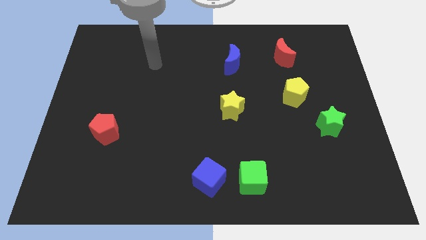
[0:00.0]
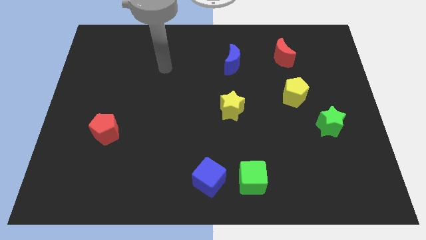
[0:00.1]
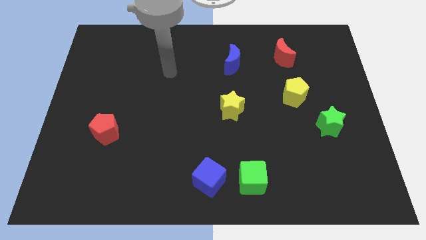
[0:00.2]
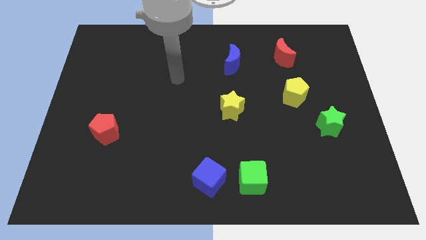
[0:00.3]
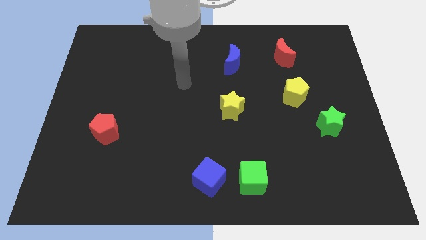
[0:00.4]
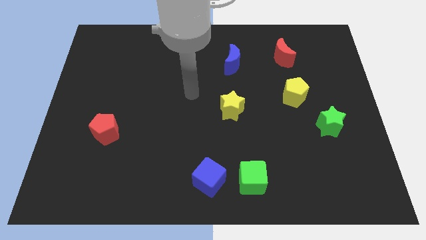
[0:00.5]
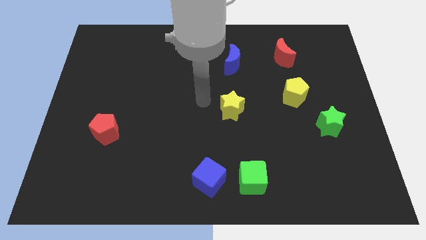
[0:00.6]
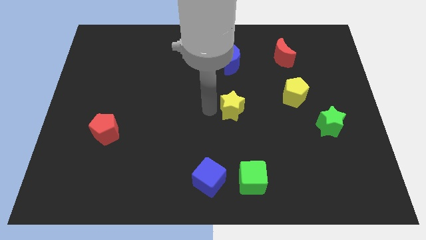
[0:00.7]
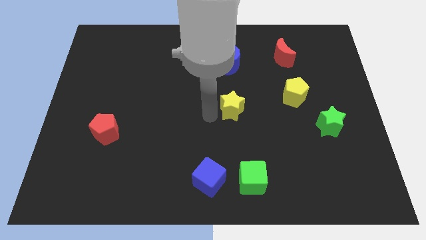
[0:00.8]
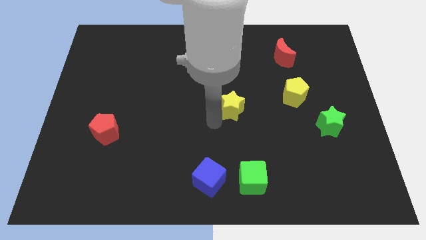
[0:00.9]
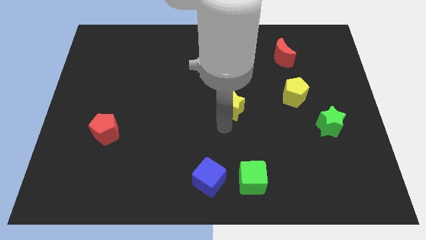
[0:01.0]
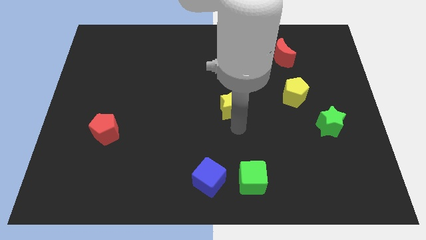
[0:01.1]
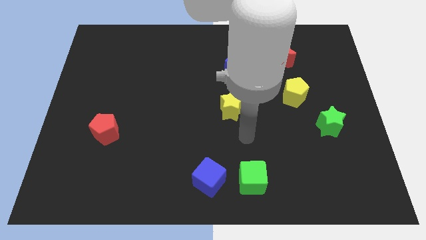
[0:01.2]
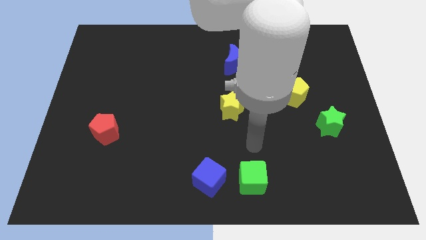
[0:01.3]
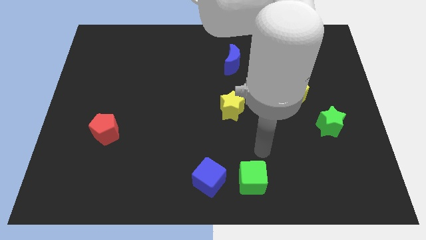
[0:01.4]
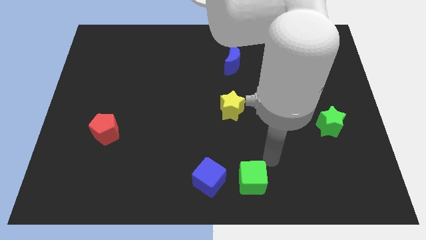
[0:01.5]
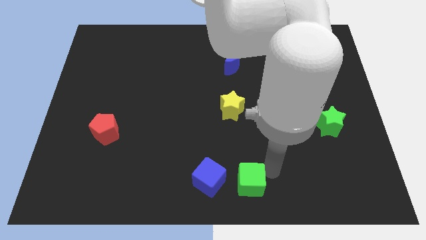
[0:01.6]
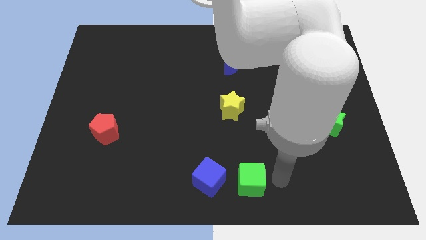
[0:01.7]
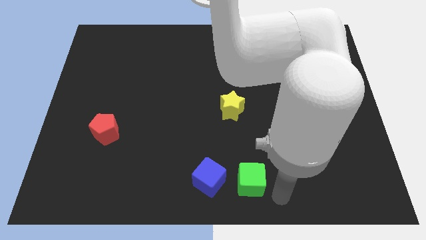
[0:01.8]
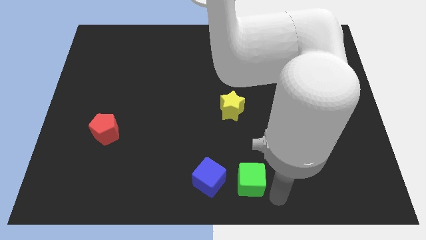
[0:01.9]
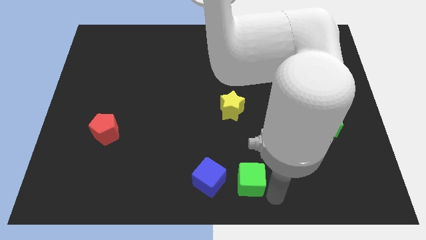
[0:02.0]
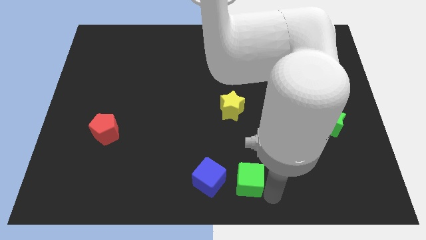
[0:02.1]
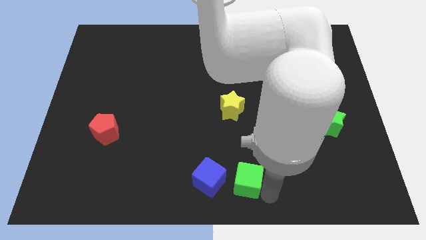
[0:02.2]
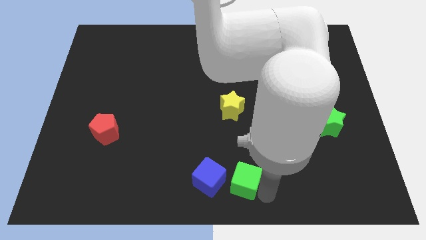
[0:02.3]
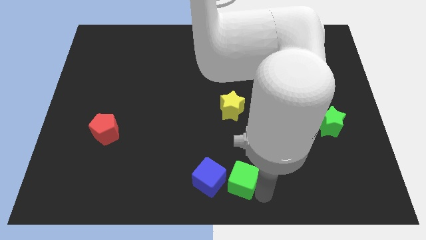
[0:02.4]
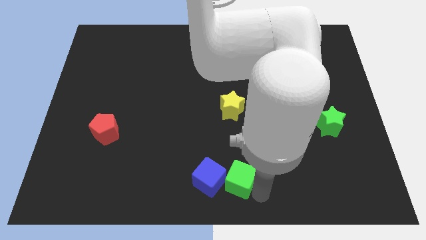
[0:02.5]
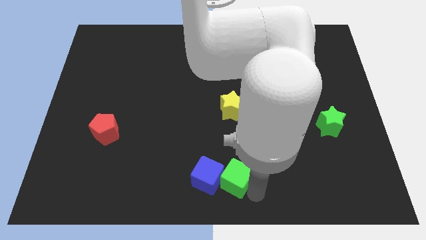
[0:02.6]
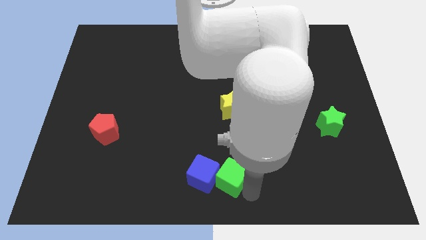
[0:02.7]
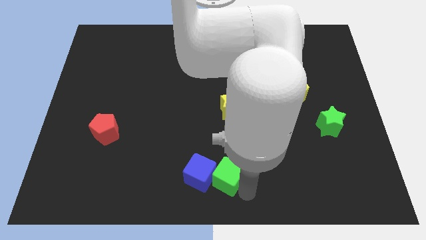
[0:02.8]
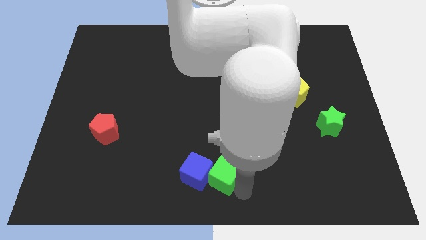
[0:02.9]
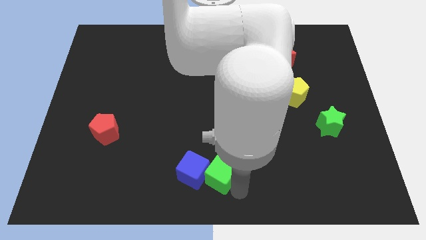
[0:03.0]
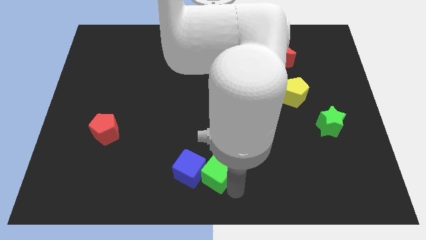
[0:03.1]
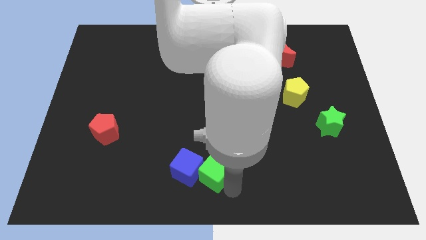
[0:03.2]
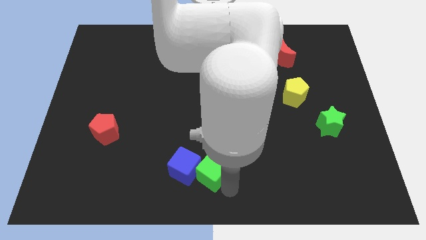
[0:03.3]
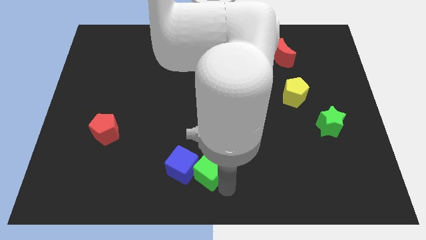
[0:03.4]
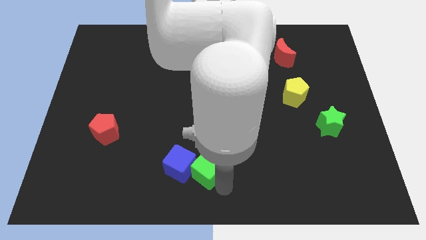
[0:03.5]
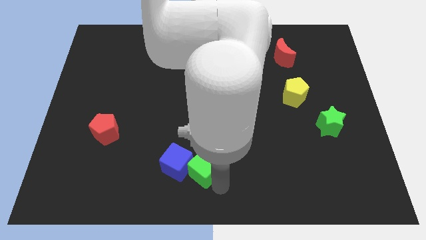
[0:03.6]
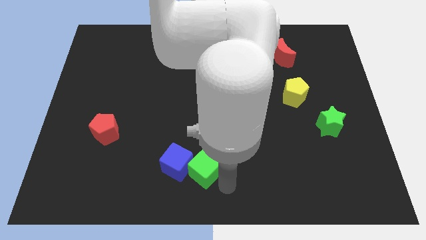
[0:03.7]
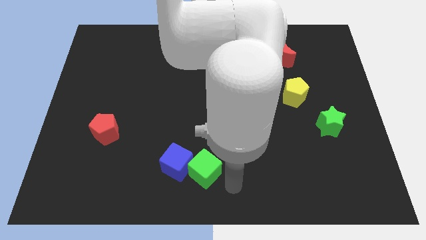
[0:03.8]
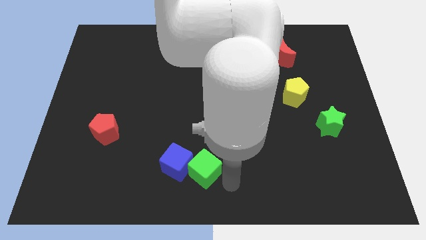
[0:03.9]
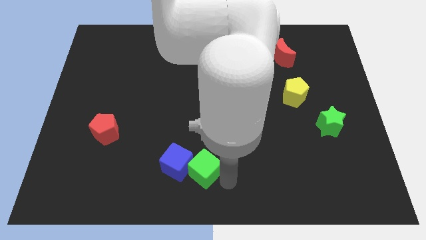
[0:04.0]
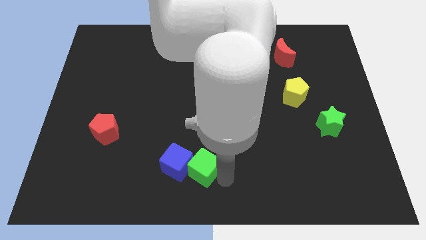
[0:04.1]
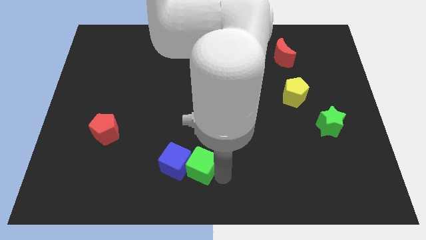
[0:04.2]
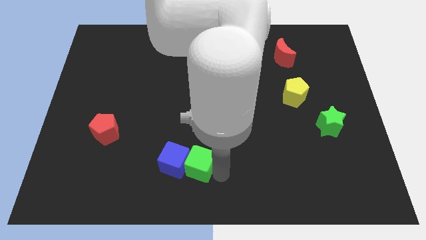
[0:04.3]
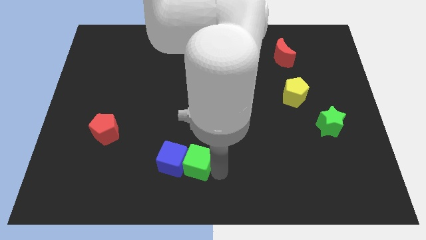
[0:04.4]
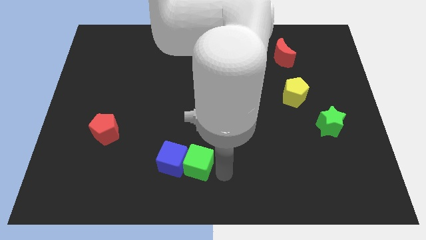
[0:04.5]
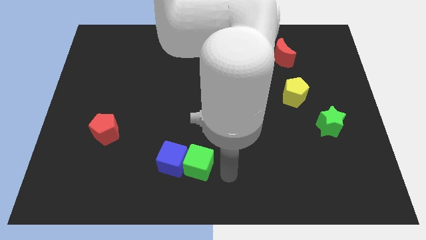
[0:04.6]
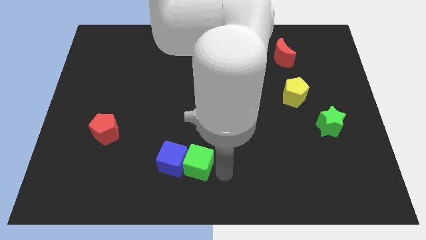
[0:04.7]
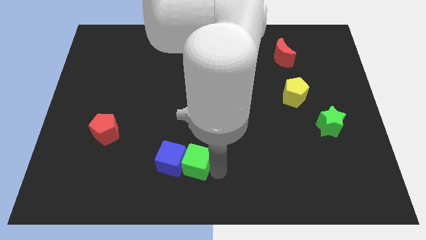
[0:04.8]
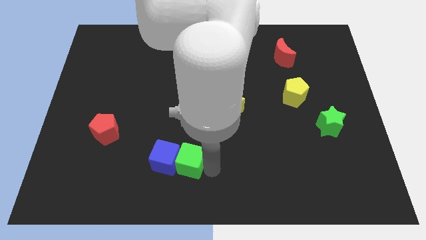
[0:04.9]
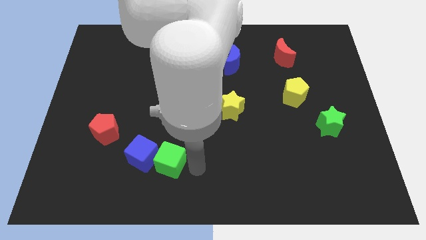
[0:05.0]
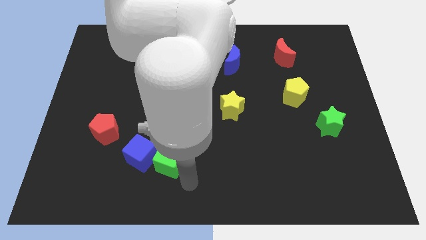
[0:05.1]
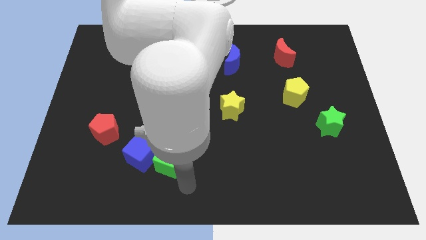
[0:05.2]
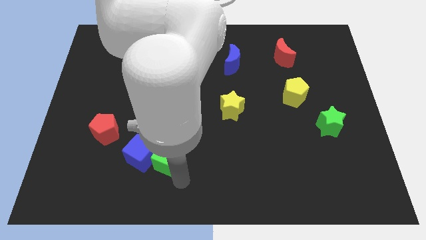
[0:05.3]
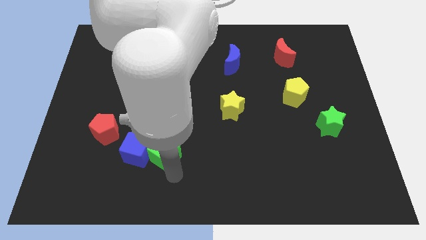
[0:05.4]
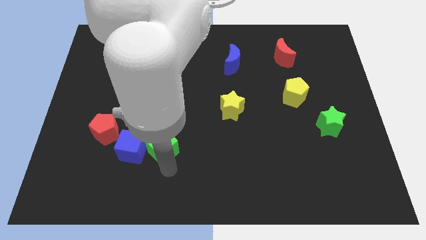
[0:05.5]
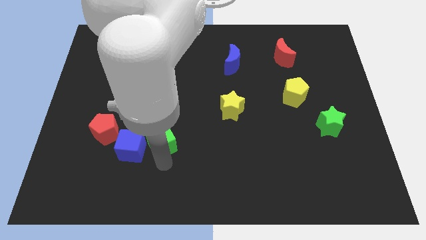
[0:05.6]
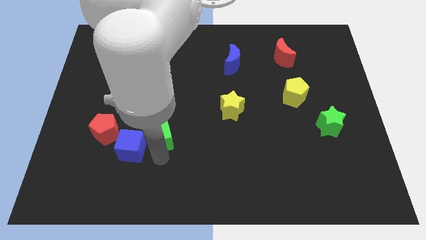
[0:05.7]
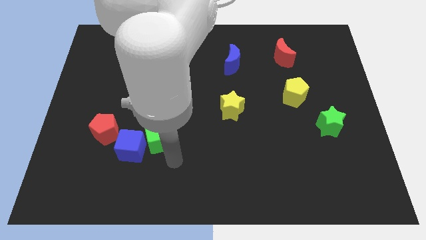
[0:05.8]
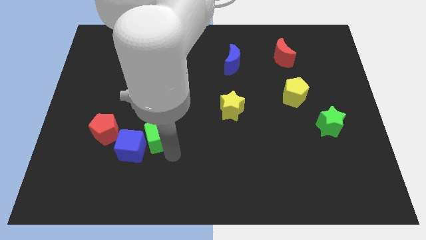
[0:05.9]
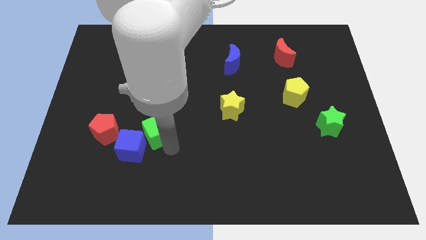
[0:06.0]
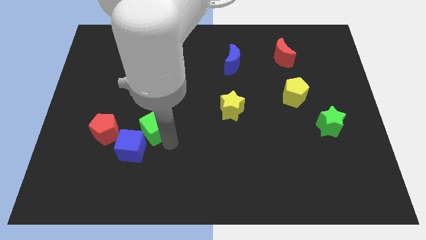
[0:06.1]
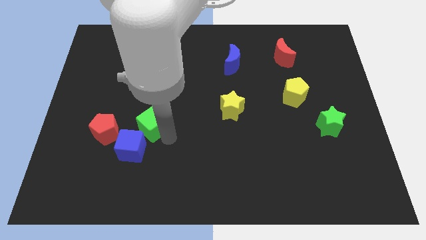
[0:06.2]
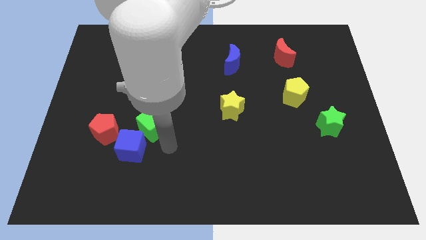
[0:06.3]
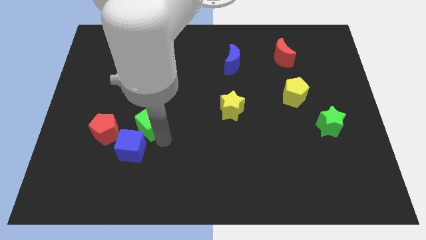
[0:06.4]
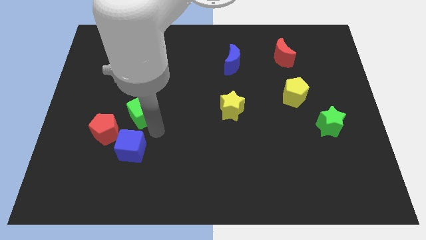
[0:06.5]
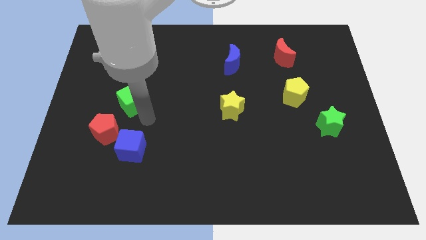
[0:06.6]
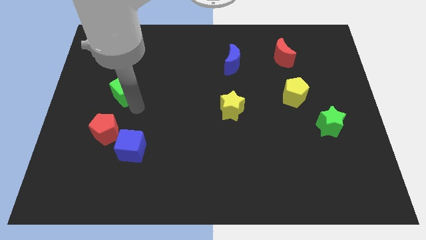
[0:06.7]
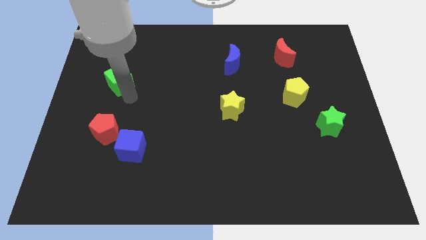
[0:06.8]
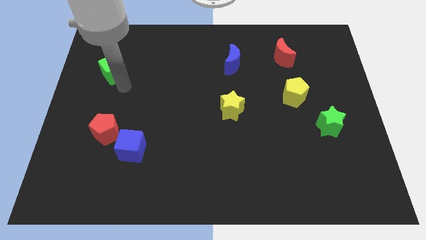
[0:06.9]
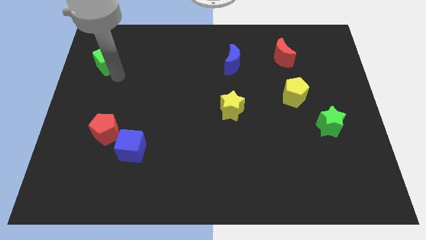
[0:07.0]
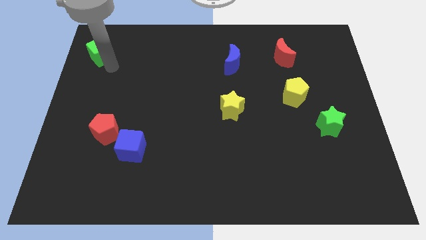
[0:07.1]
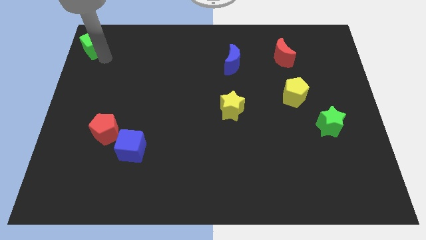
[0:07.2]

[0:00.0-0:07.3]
push the green cube to the top left corner
